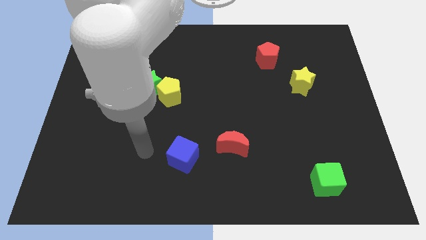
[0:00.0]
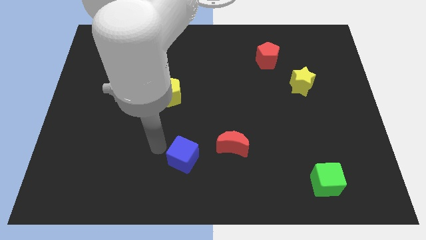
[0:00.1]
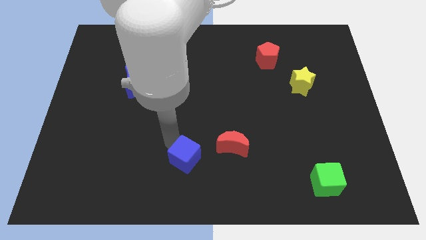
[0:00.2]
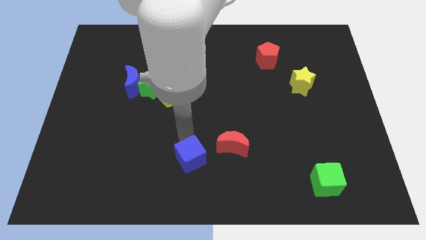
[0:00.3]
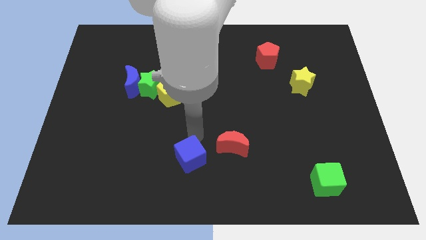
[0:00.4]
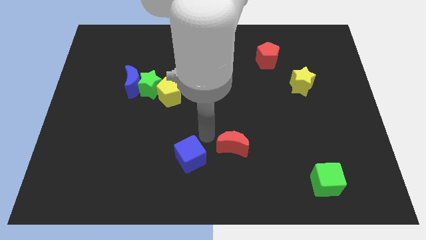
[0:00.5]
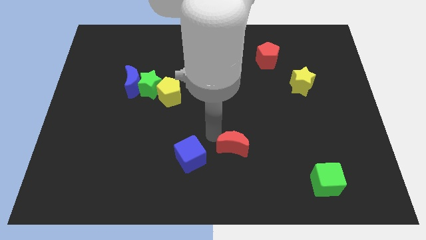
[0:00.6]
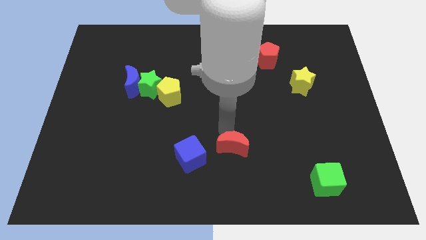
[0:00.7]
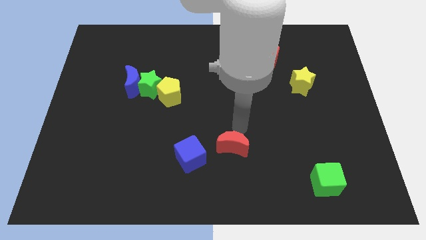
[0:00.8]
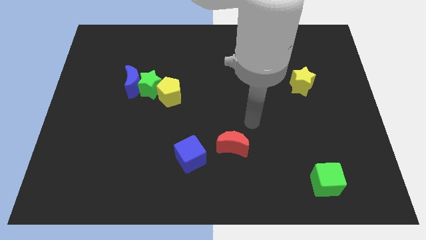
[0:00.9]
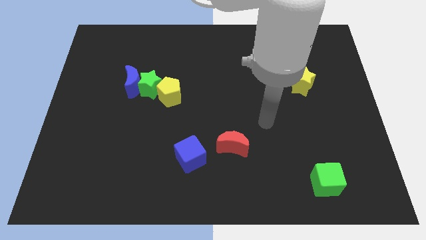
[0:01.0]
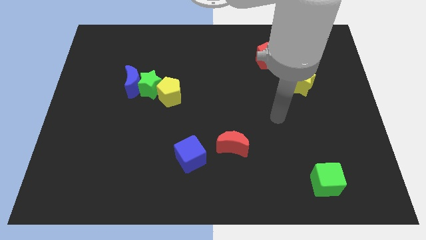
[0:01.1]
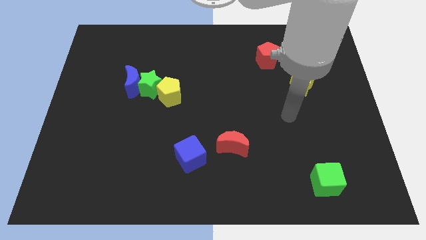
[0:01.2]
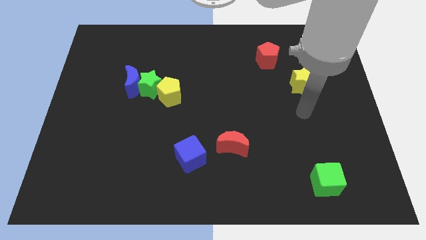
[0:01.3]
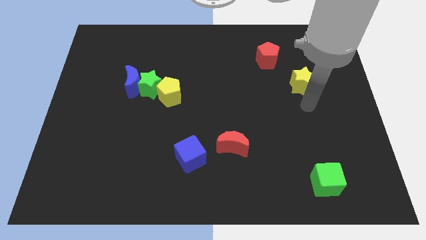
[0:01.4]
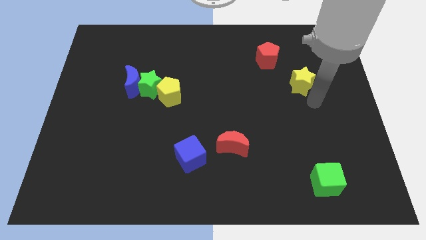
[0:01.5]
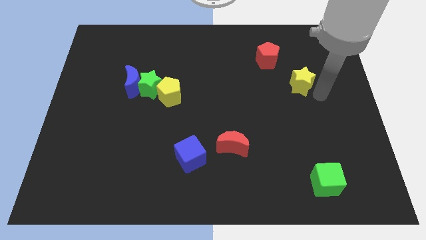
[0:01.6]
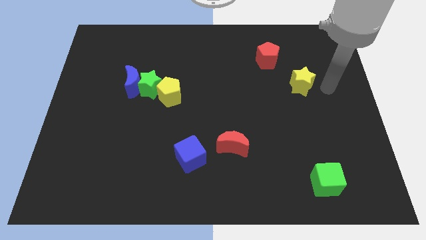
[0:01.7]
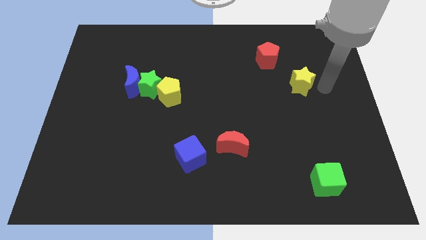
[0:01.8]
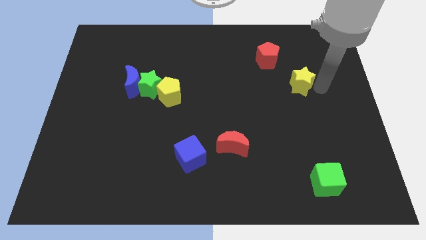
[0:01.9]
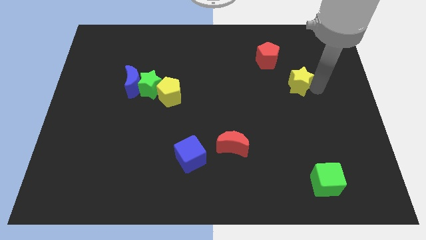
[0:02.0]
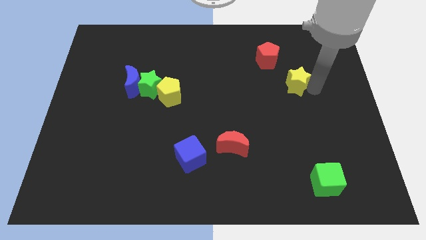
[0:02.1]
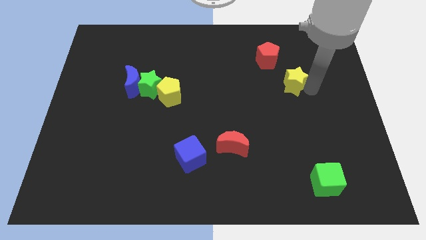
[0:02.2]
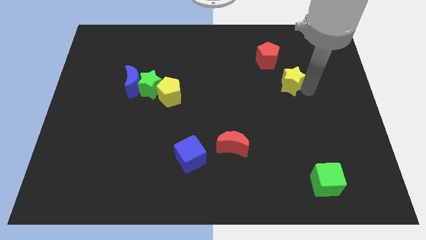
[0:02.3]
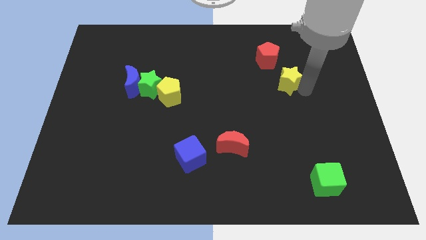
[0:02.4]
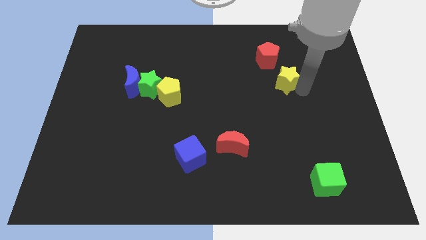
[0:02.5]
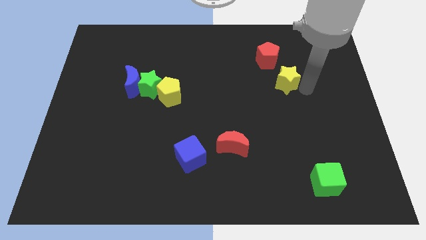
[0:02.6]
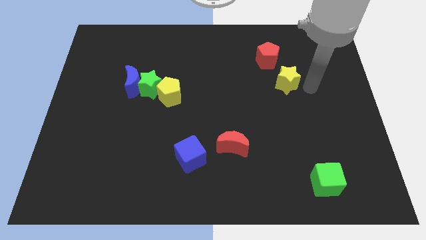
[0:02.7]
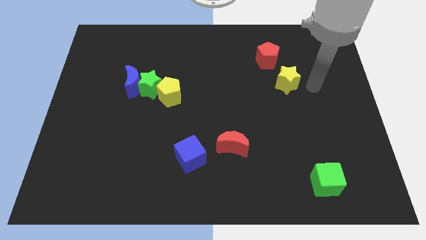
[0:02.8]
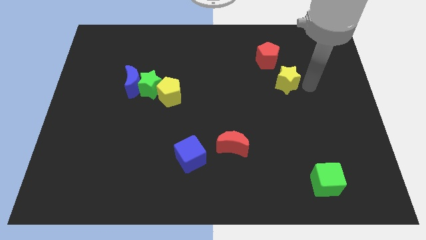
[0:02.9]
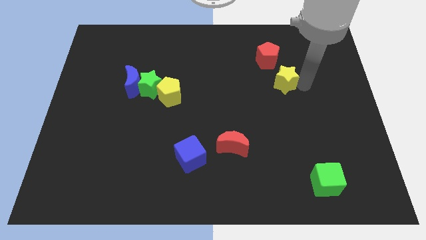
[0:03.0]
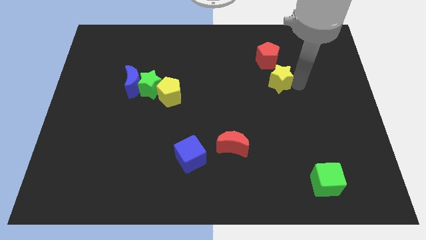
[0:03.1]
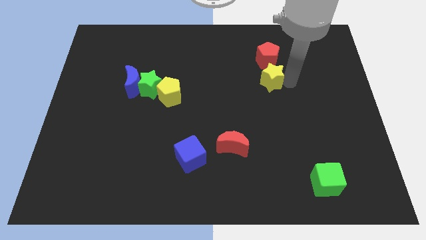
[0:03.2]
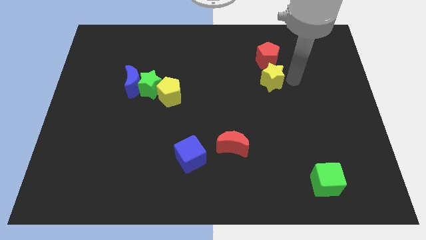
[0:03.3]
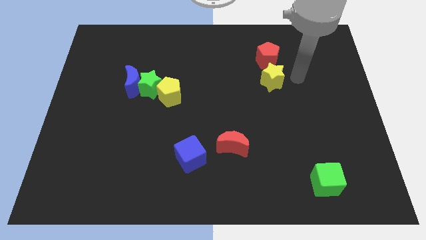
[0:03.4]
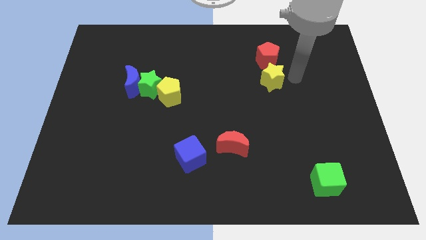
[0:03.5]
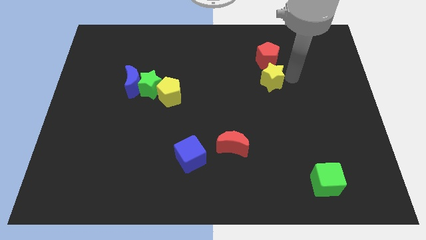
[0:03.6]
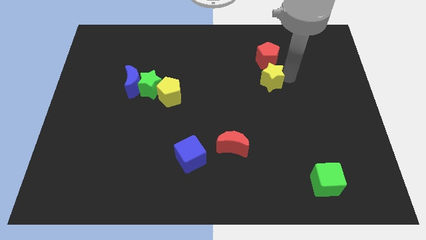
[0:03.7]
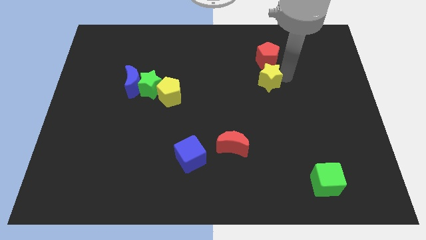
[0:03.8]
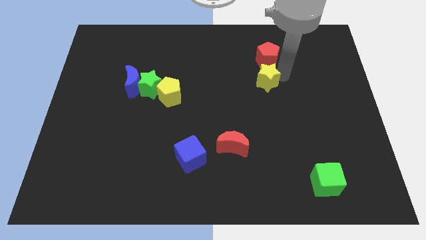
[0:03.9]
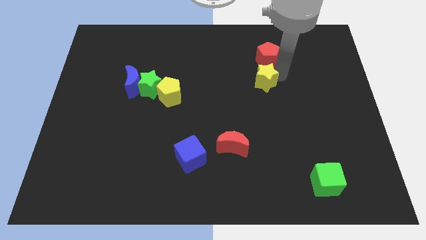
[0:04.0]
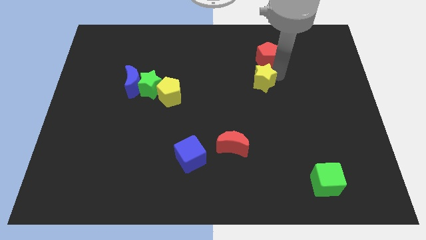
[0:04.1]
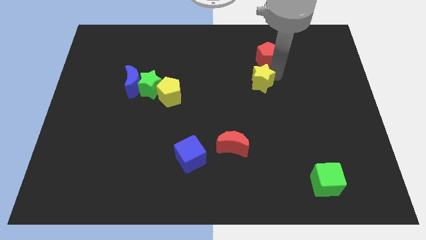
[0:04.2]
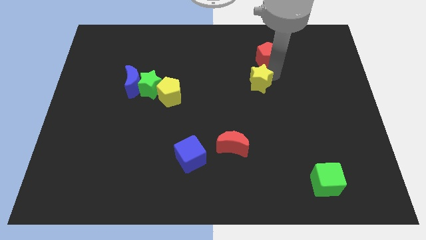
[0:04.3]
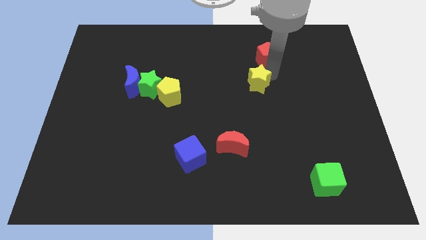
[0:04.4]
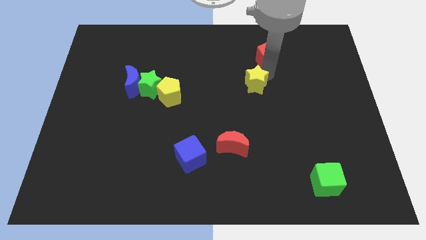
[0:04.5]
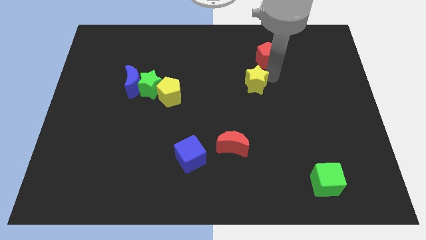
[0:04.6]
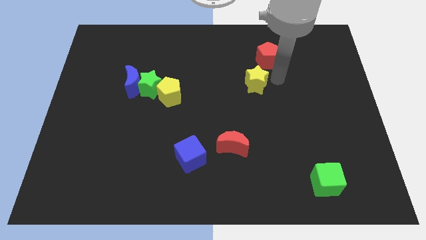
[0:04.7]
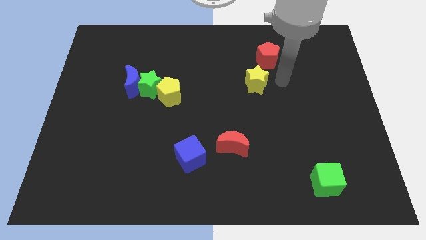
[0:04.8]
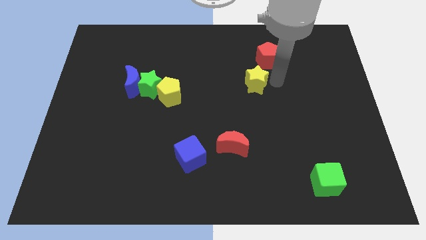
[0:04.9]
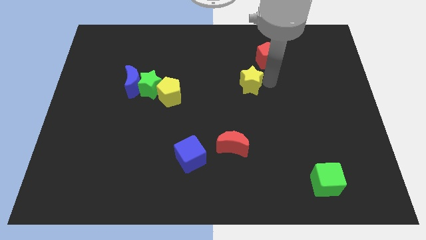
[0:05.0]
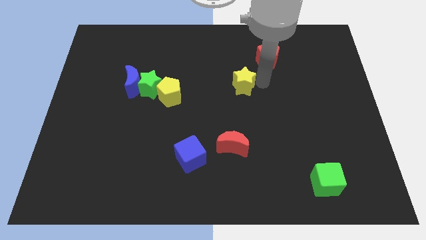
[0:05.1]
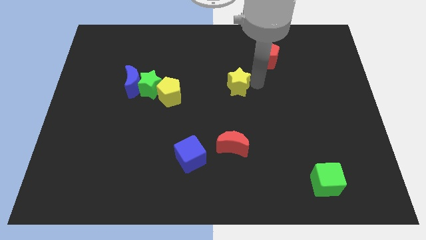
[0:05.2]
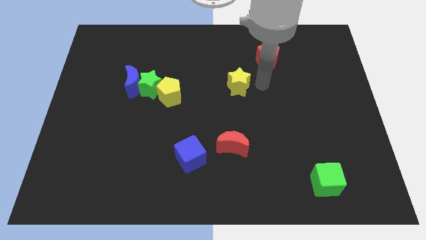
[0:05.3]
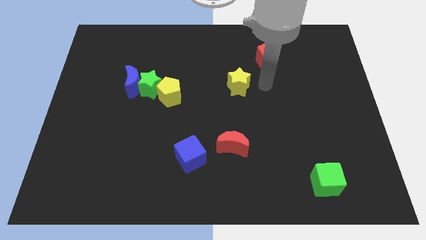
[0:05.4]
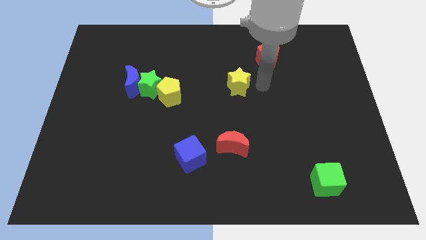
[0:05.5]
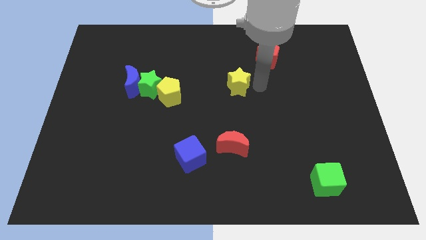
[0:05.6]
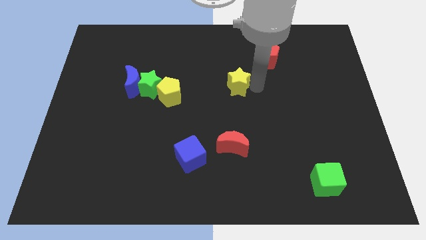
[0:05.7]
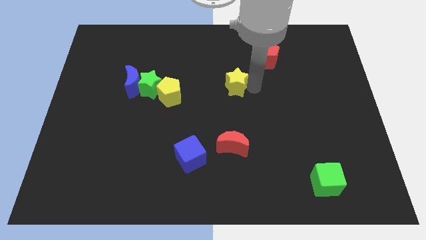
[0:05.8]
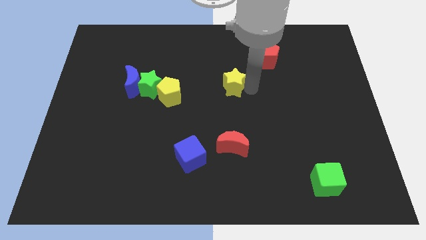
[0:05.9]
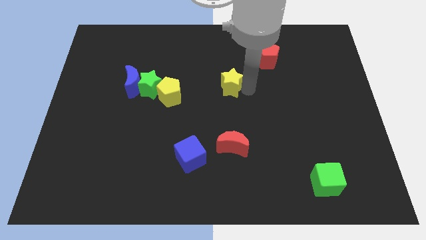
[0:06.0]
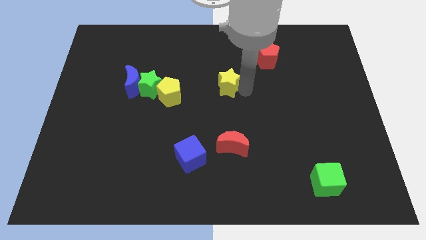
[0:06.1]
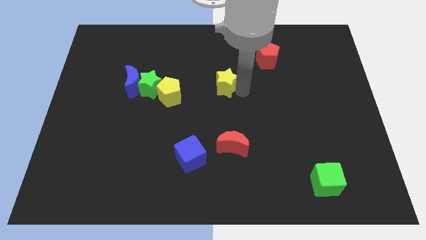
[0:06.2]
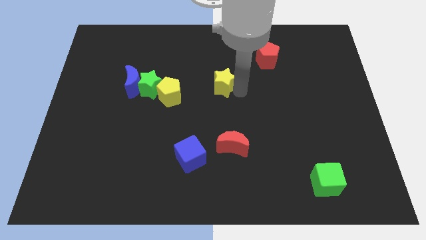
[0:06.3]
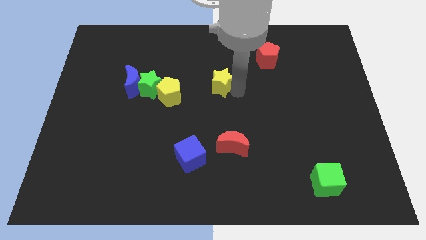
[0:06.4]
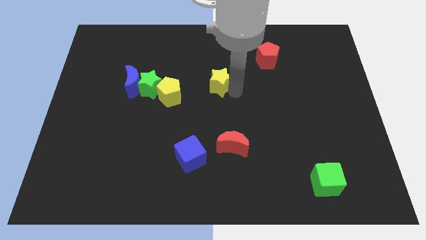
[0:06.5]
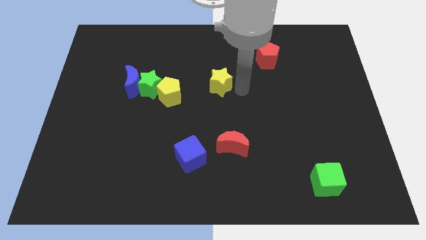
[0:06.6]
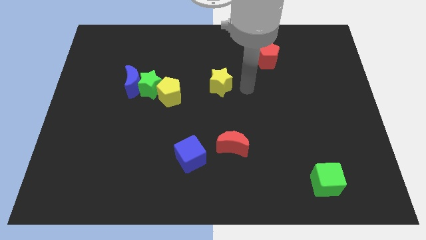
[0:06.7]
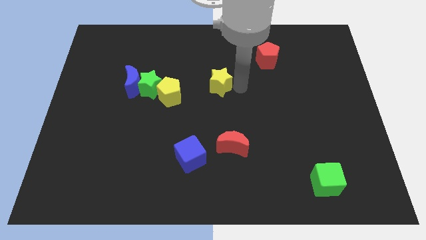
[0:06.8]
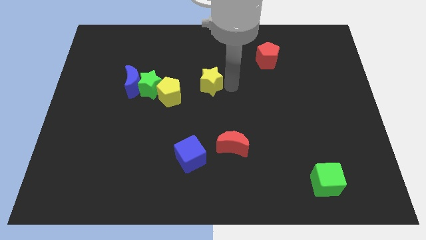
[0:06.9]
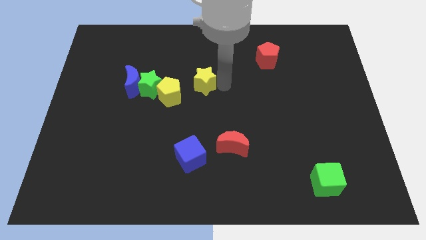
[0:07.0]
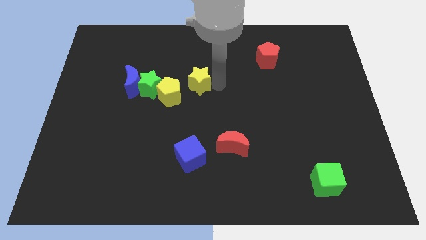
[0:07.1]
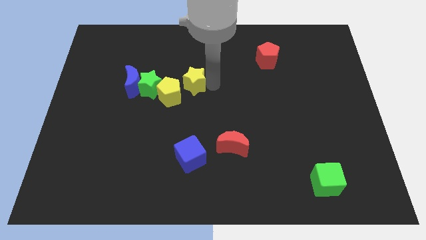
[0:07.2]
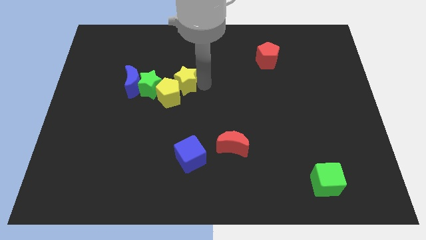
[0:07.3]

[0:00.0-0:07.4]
put the yellow star close to the yellow pentagon
